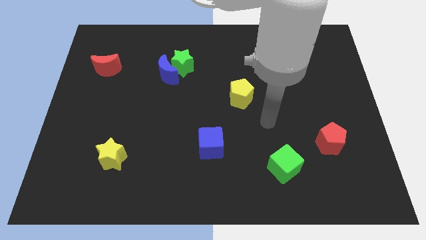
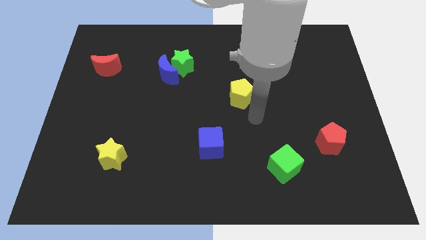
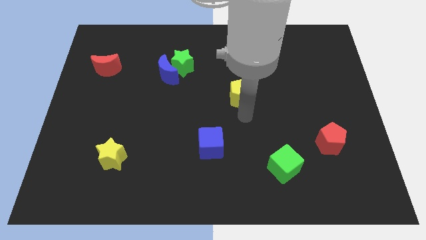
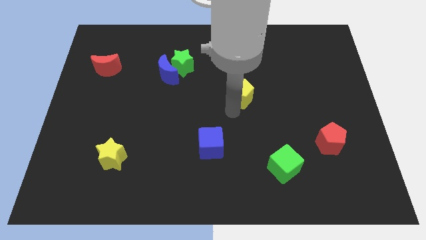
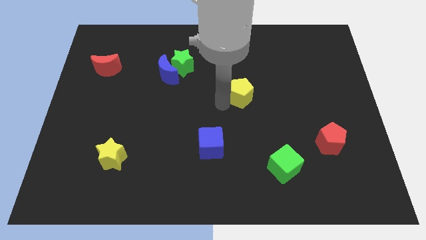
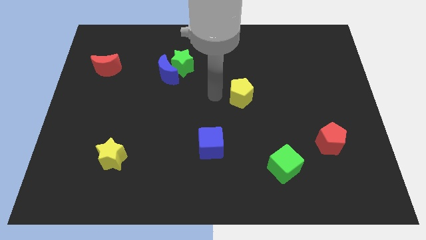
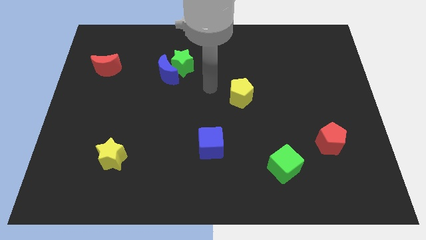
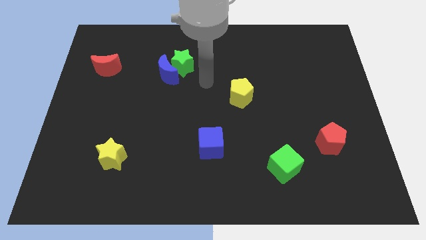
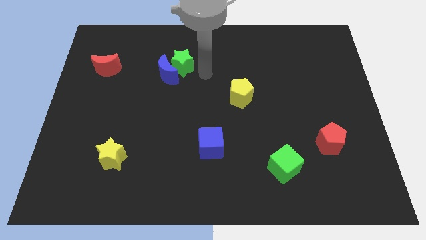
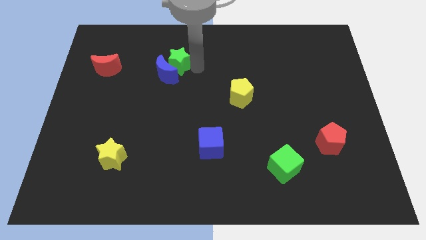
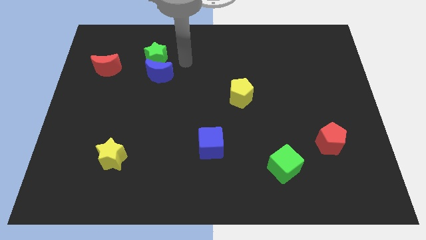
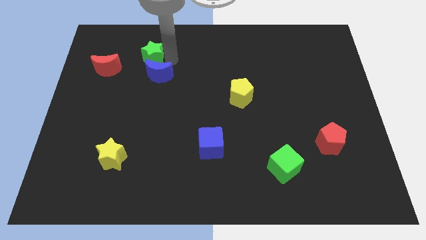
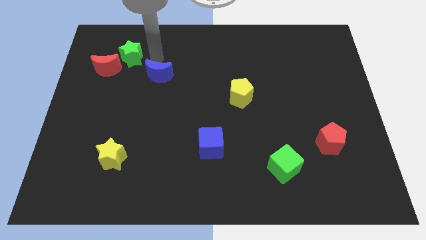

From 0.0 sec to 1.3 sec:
separate the blue moon from the green star

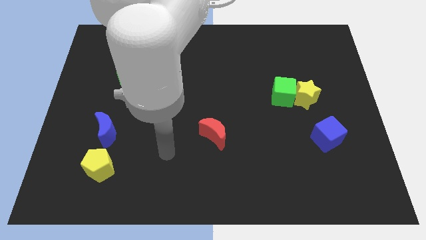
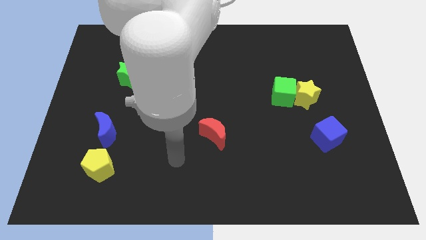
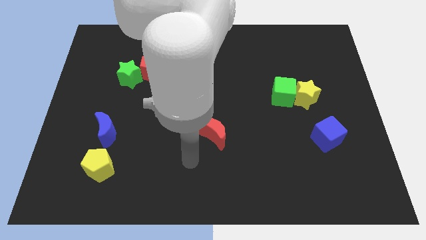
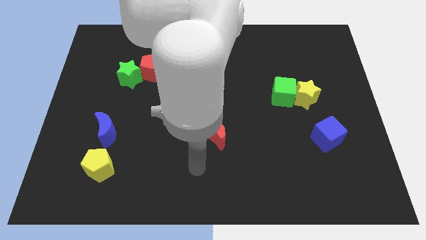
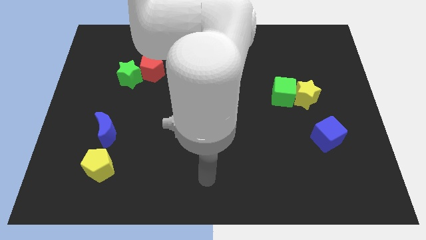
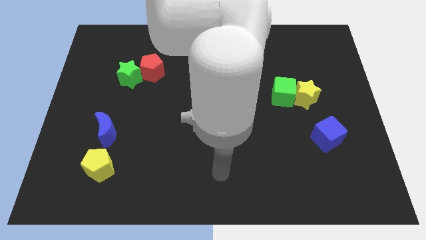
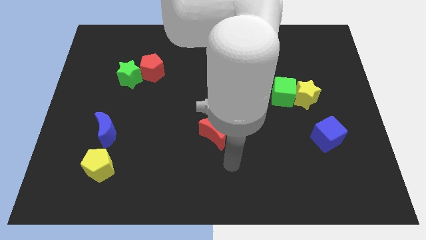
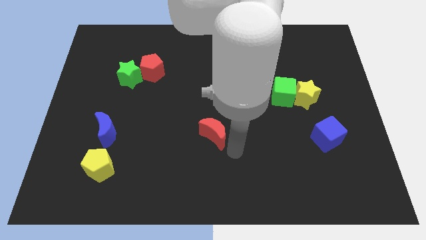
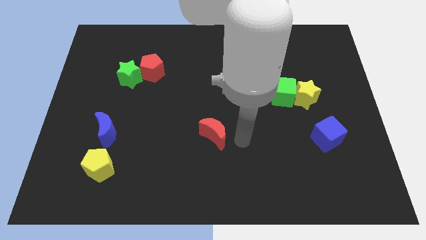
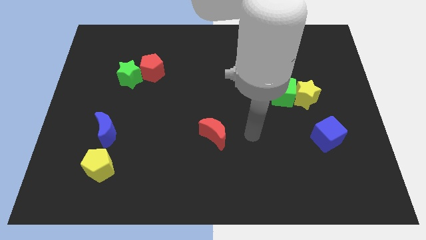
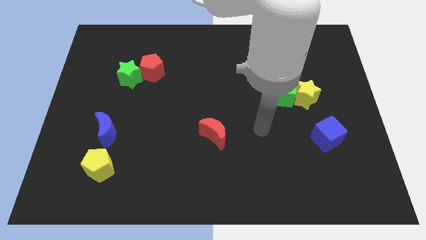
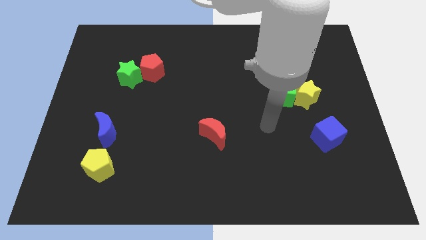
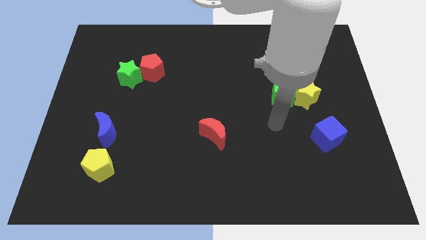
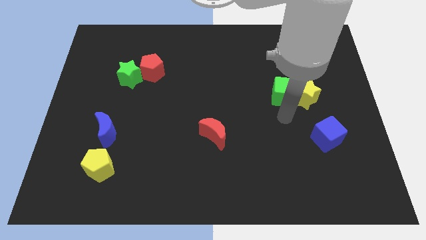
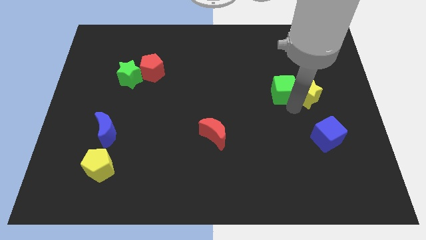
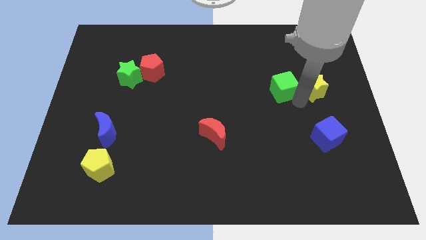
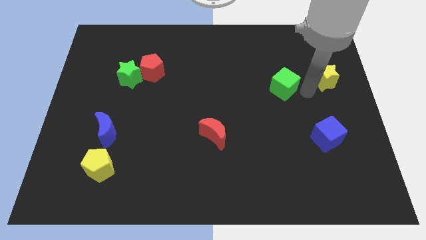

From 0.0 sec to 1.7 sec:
move the green cube away from the yellow star

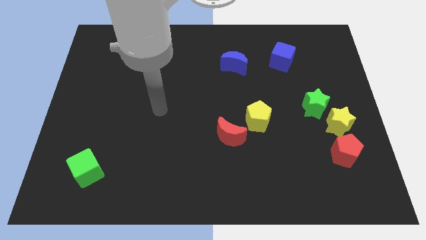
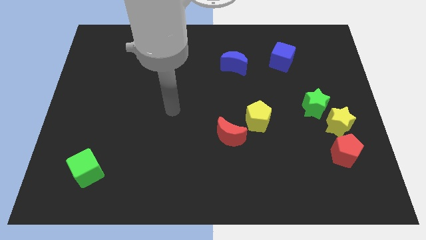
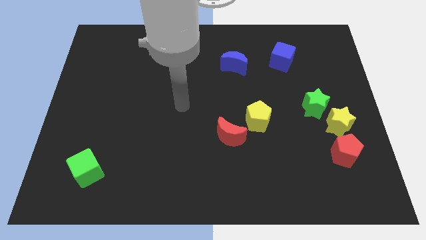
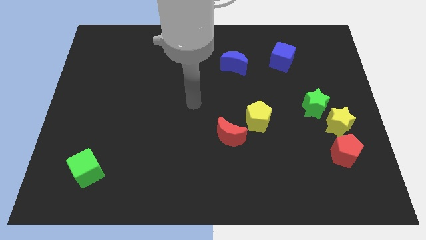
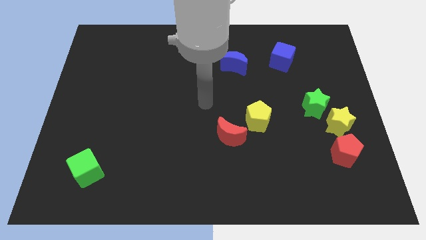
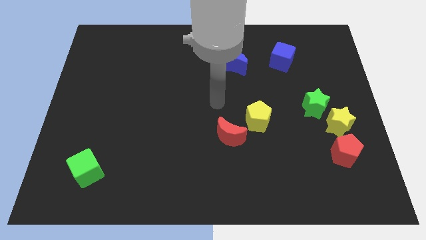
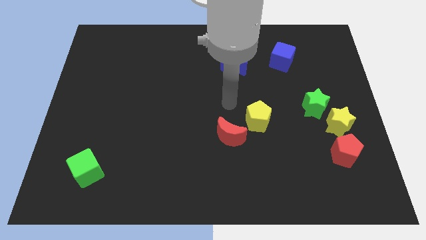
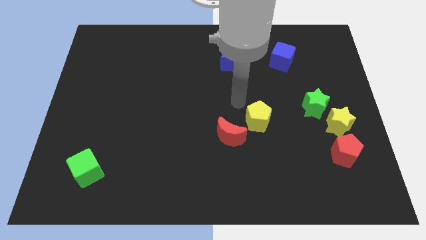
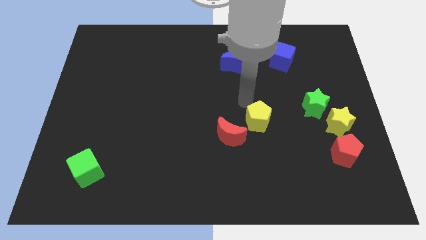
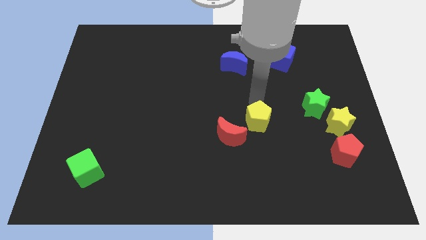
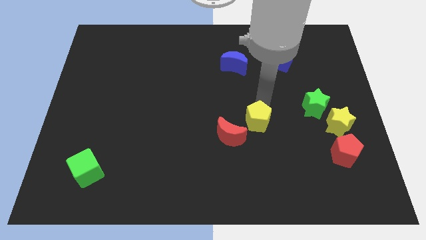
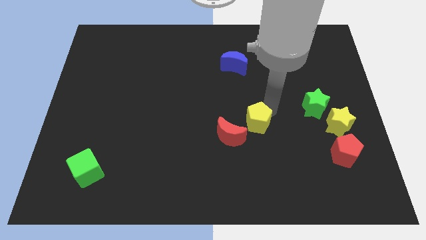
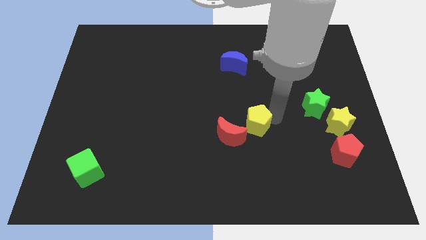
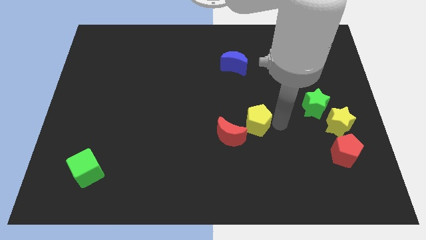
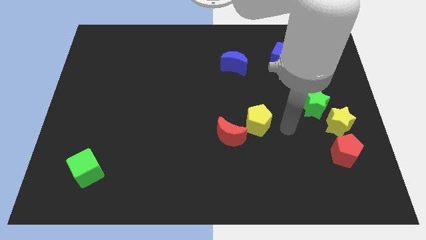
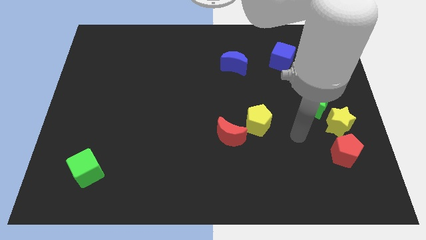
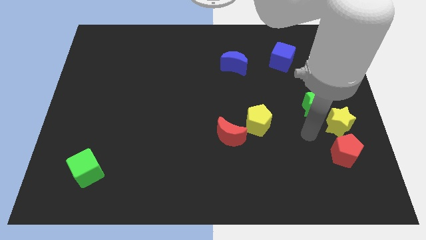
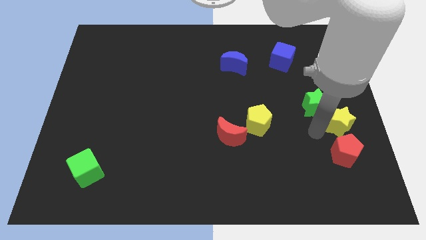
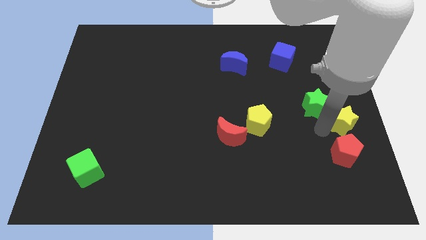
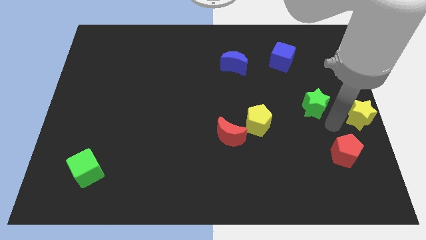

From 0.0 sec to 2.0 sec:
separate the green star from the yellow star

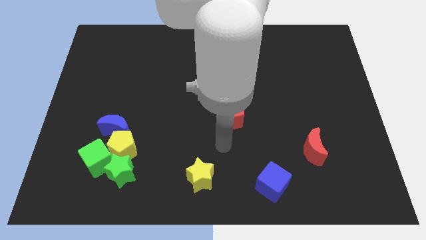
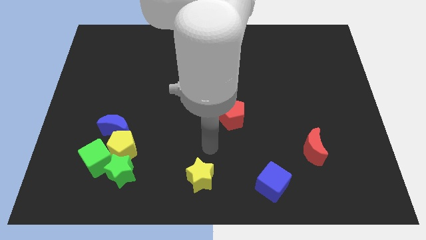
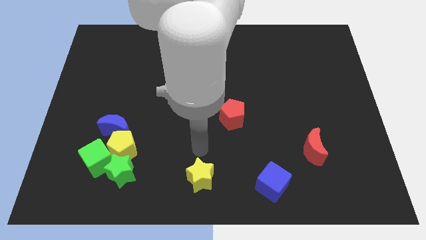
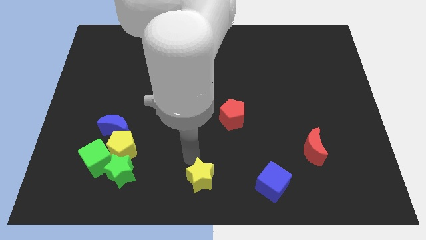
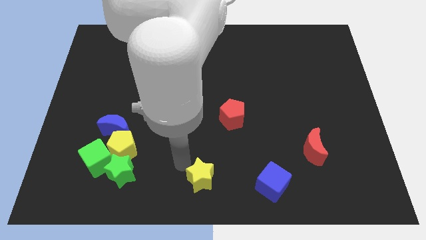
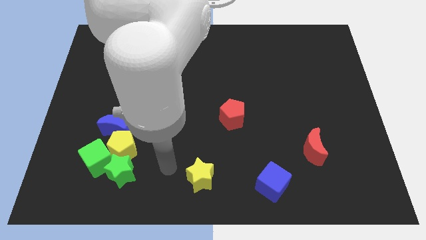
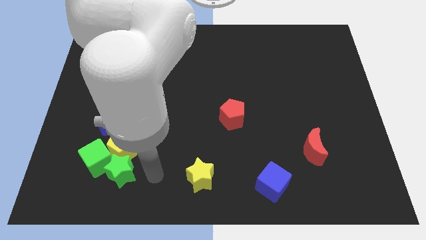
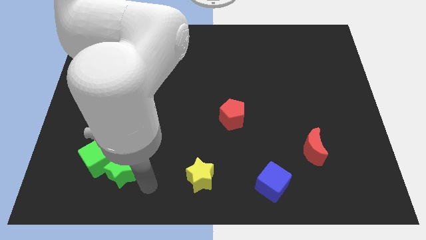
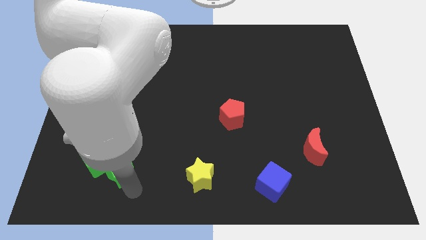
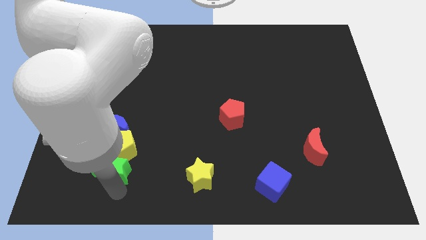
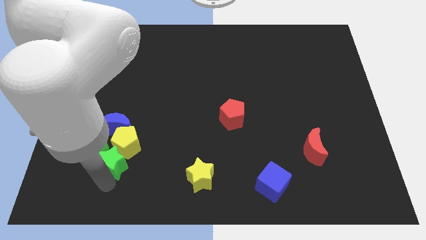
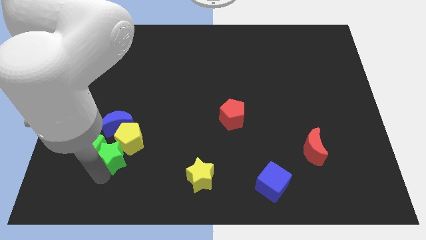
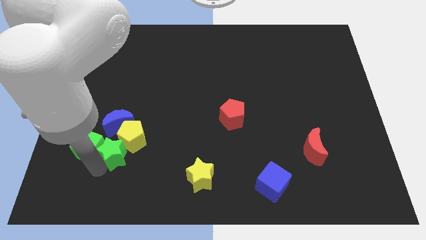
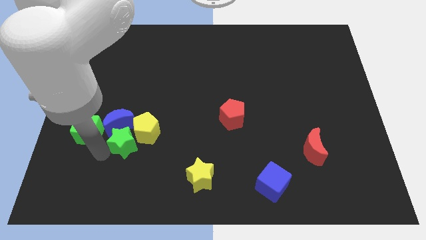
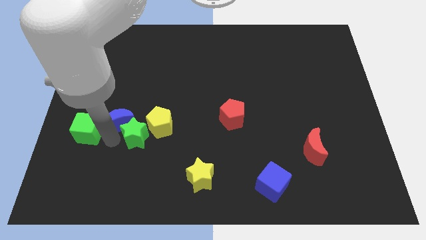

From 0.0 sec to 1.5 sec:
separate the yellow pentagon from the blue moon, green cube, and green star

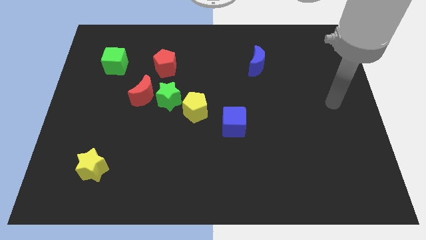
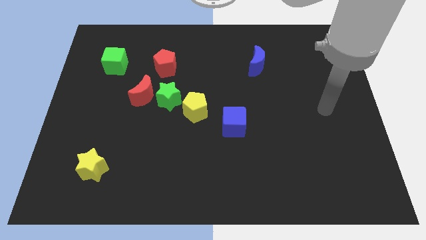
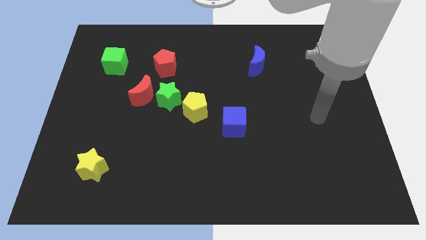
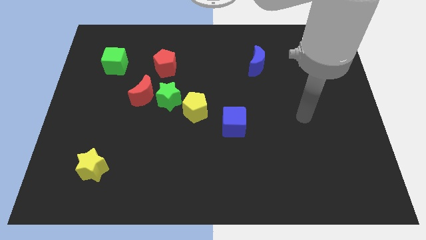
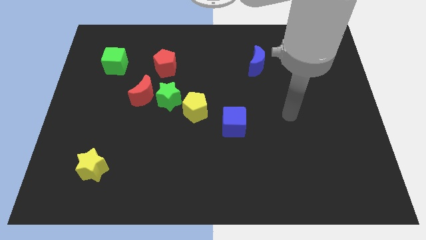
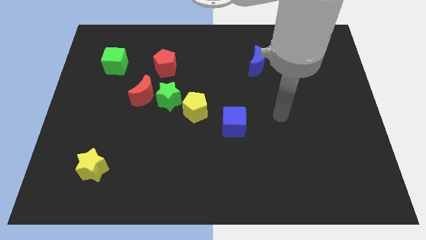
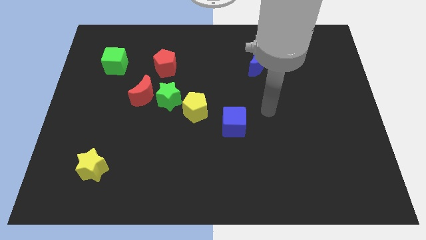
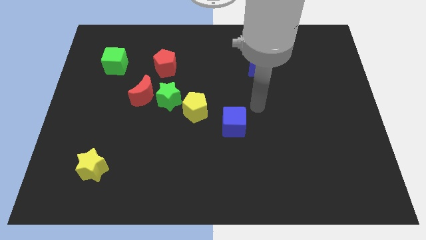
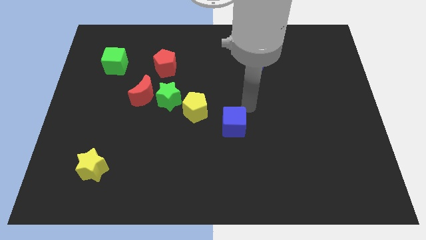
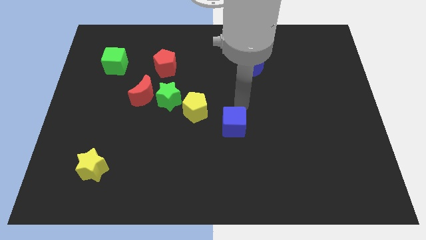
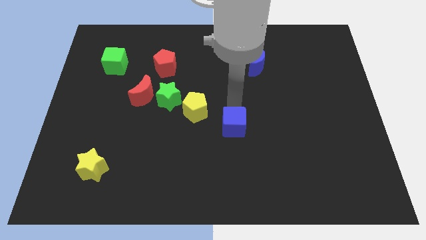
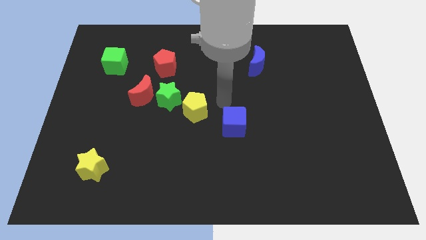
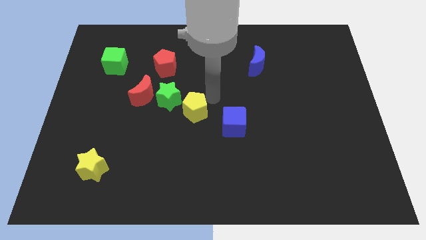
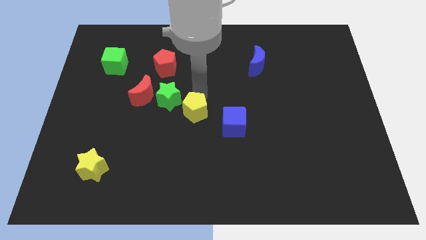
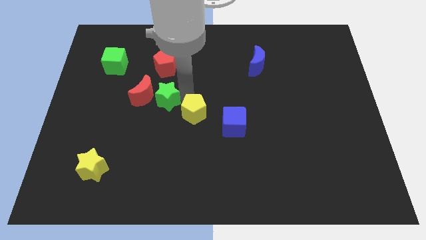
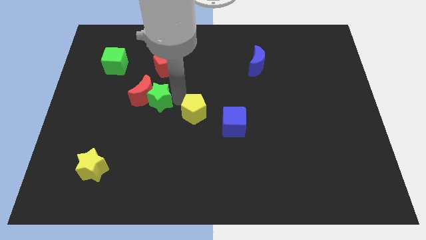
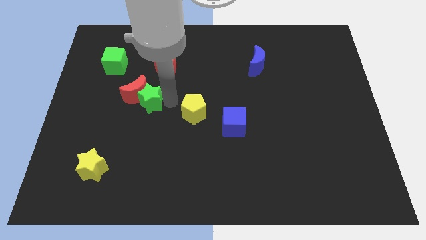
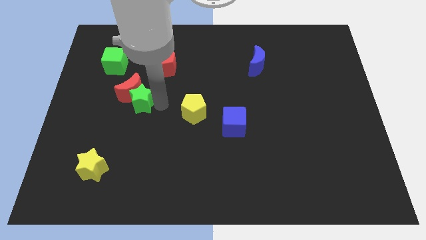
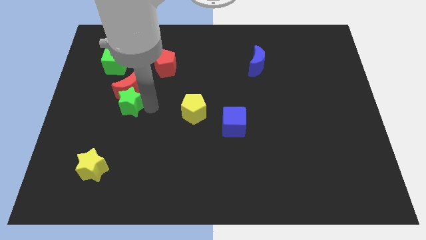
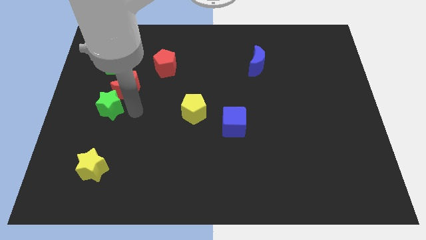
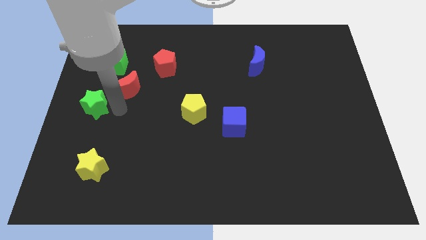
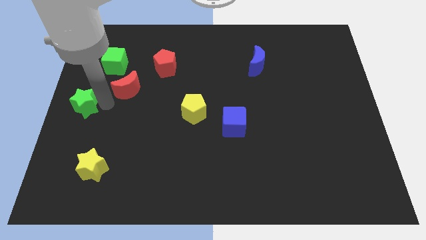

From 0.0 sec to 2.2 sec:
move the red moon away from the green star

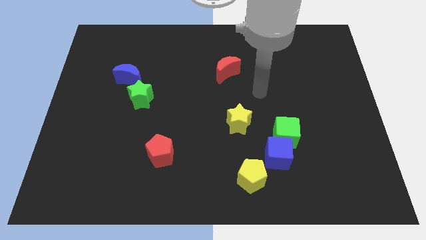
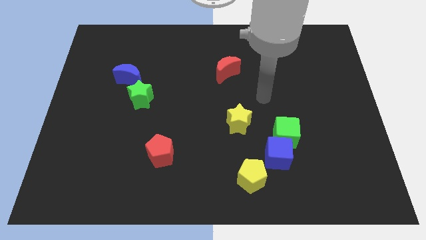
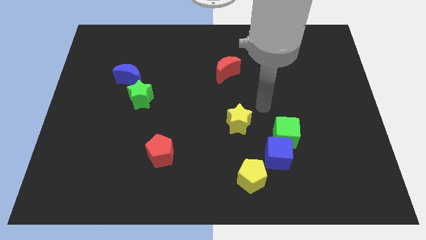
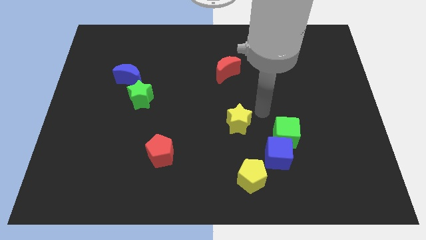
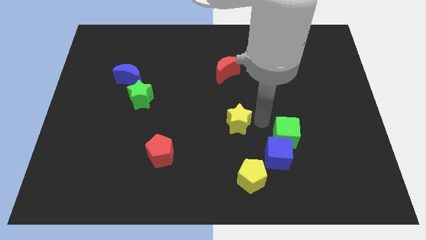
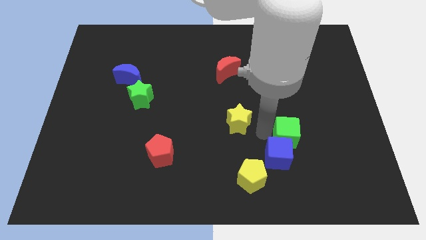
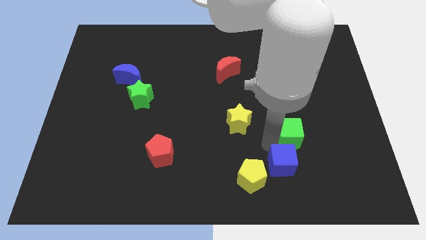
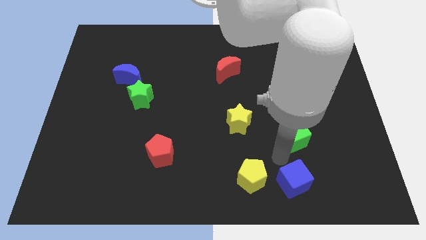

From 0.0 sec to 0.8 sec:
separate the green cube from the blue cube

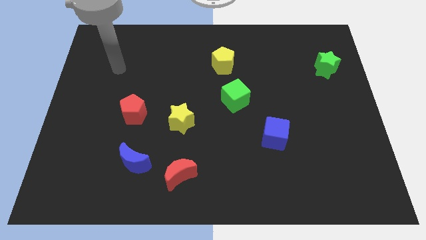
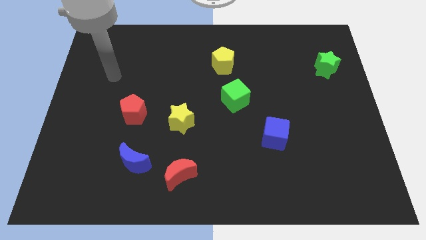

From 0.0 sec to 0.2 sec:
pull the red moon apart from the blue moon
